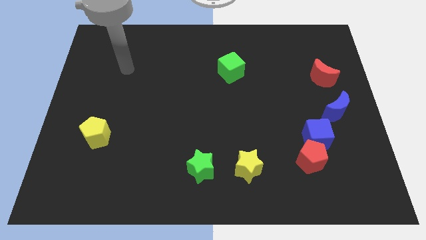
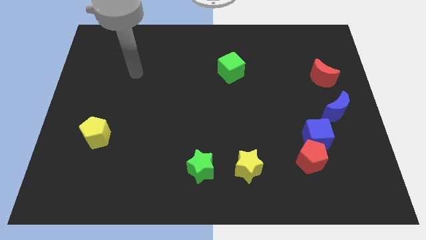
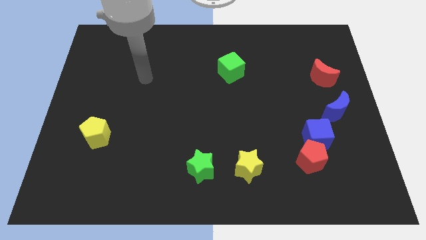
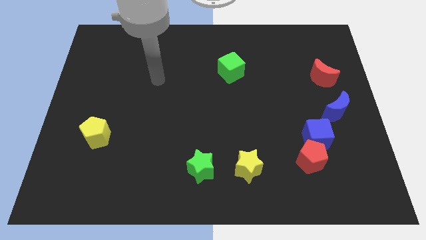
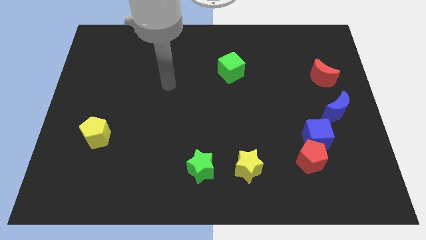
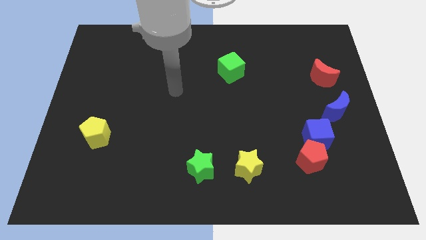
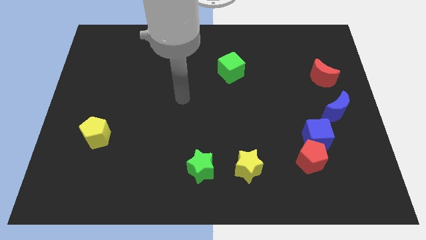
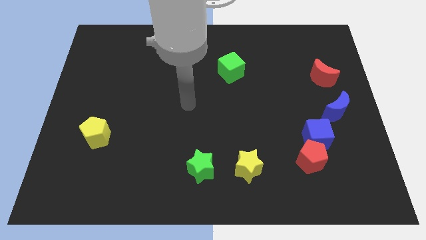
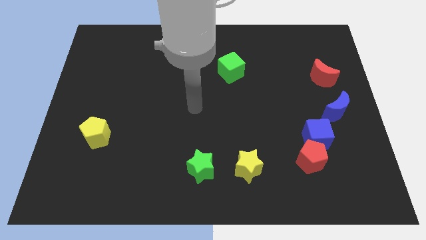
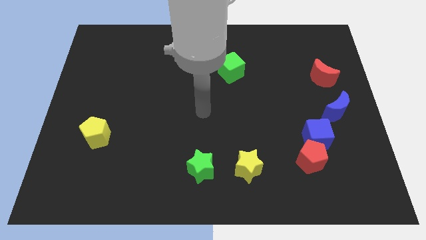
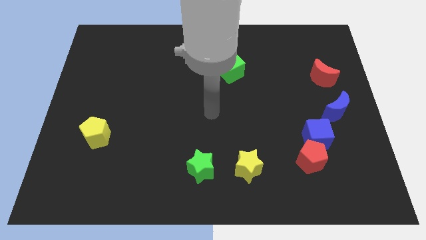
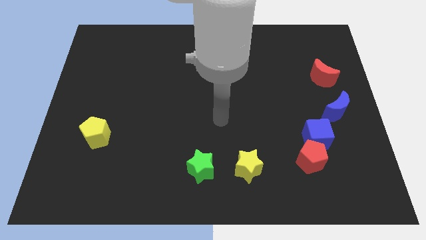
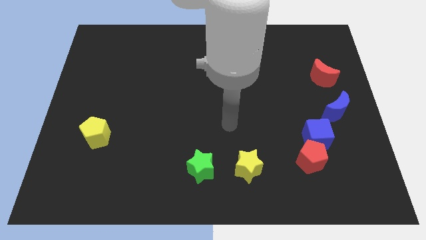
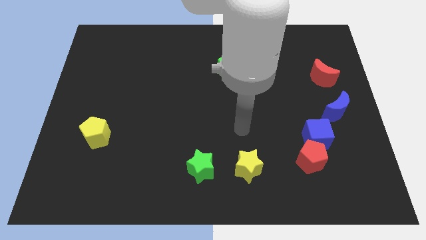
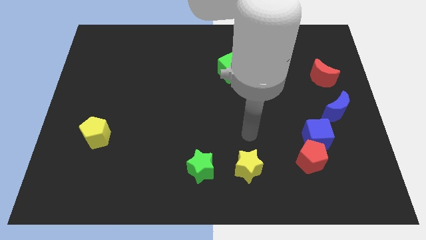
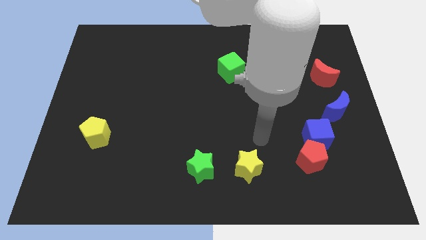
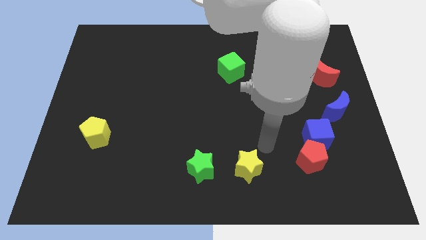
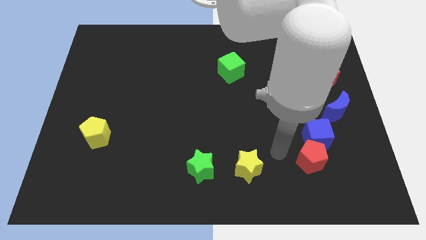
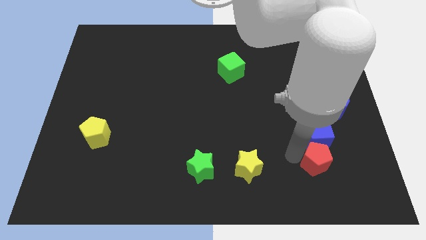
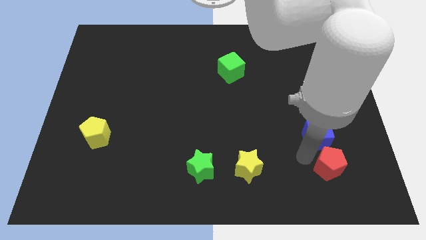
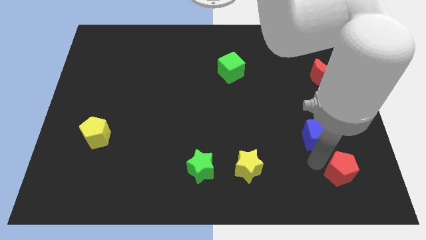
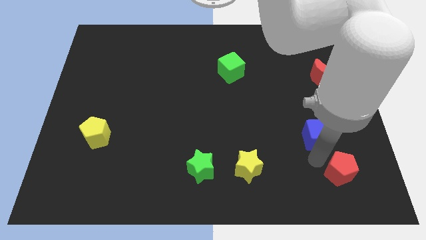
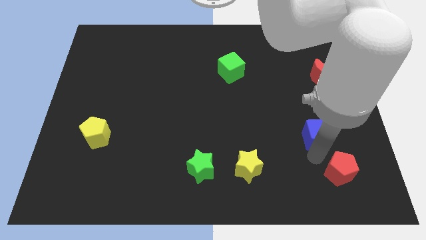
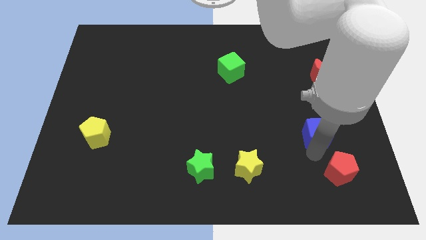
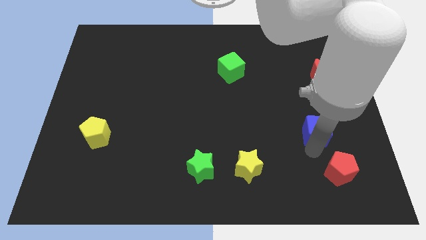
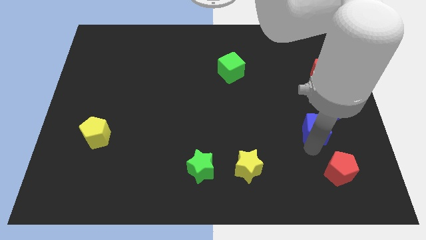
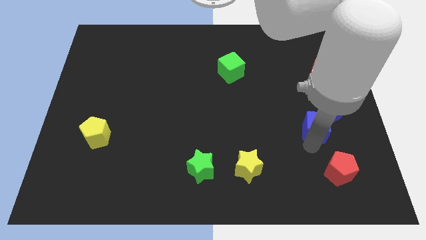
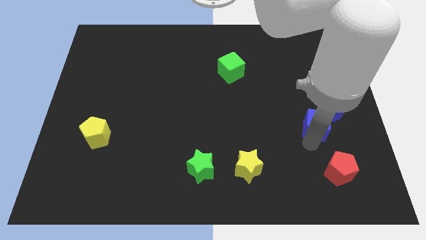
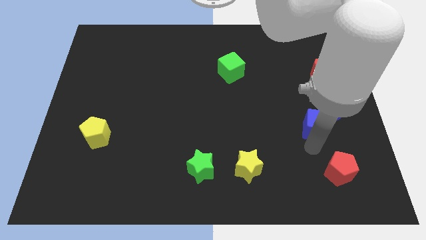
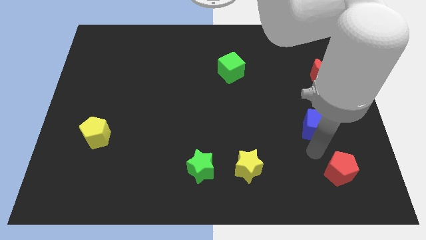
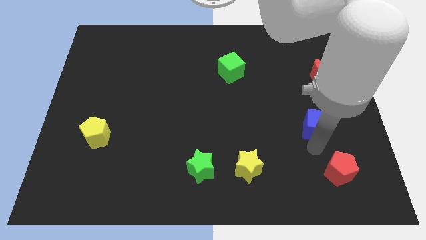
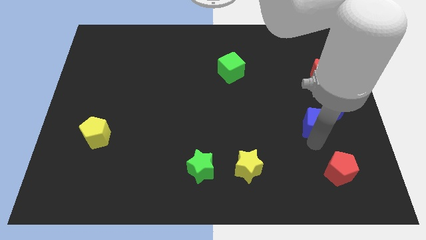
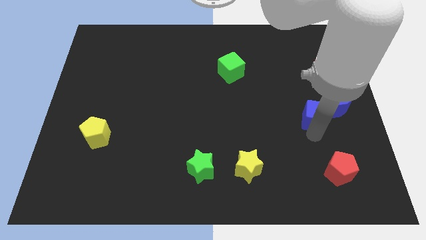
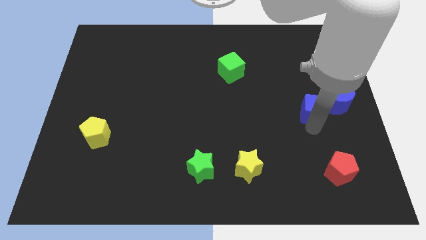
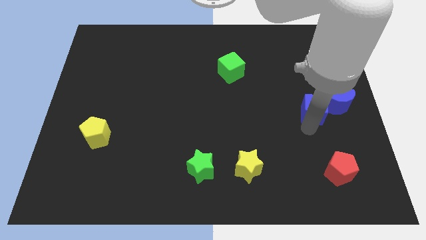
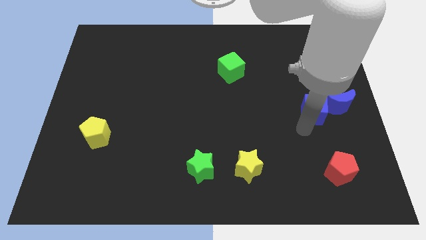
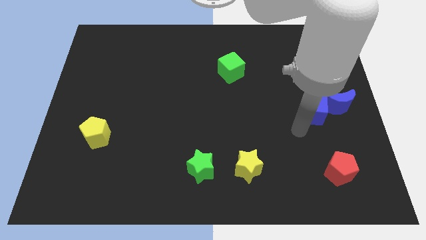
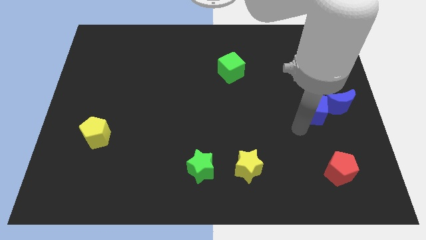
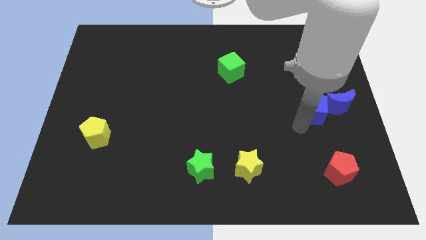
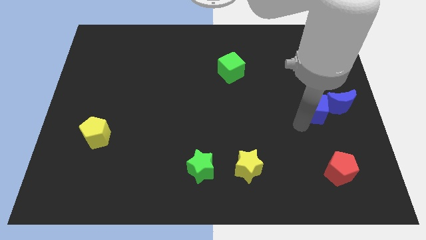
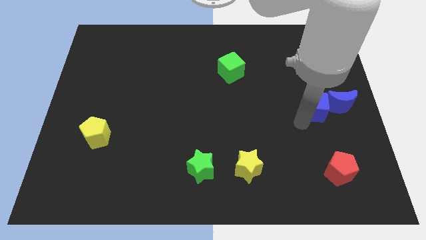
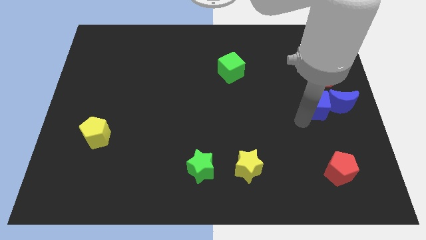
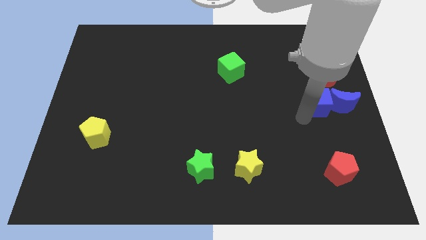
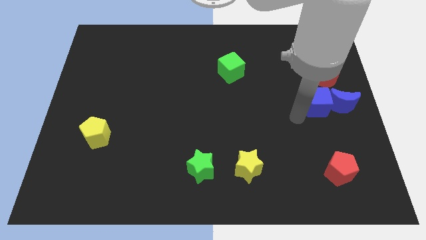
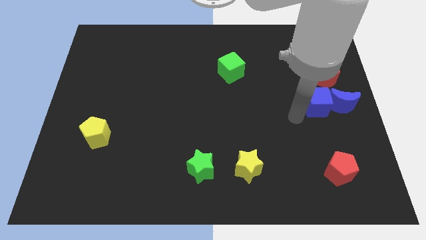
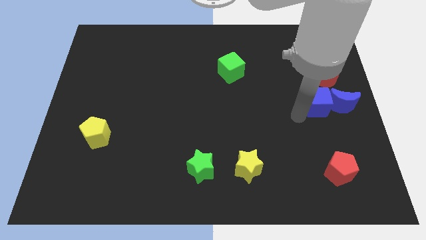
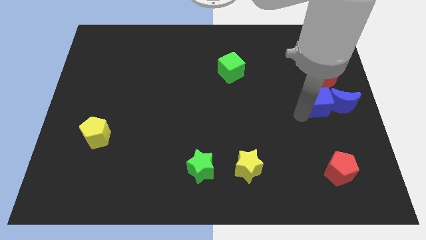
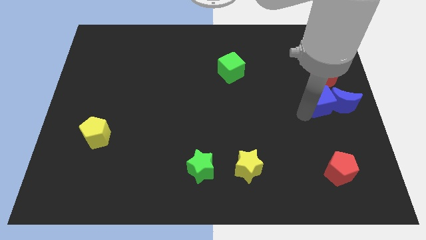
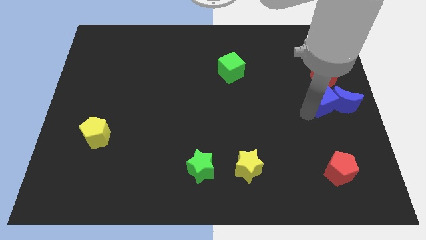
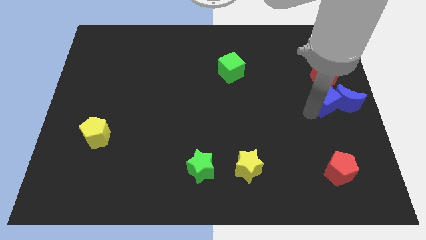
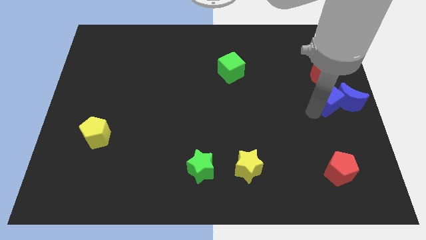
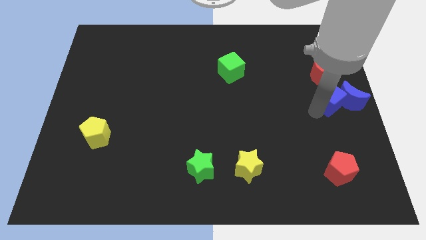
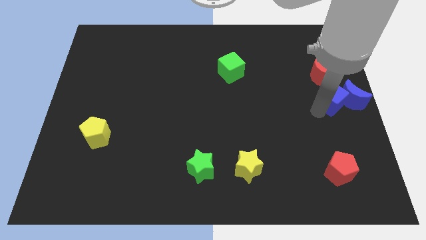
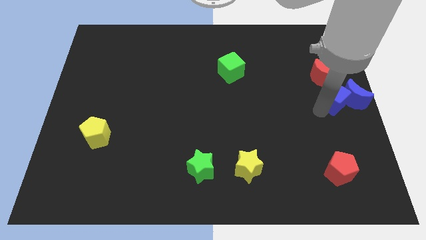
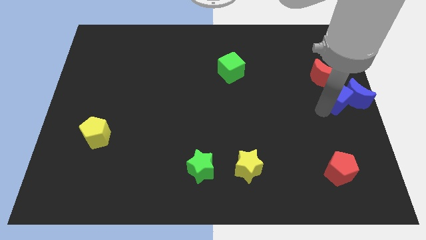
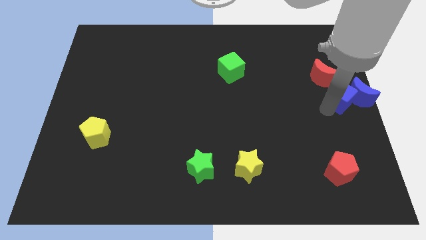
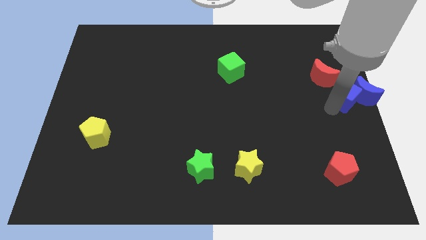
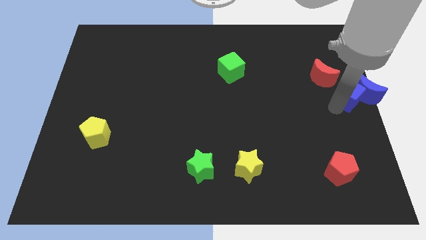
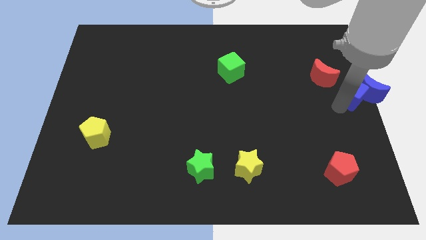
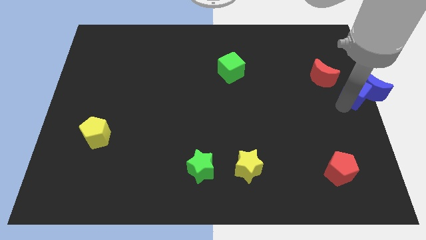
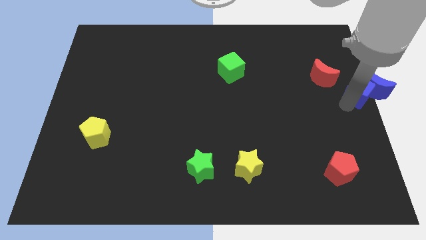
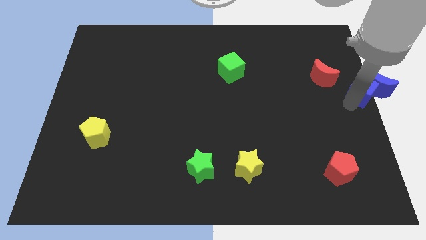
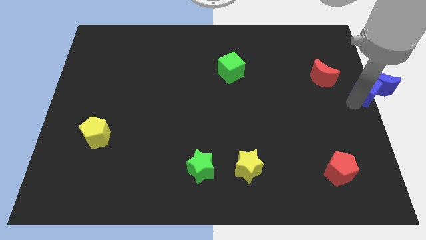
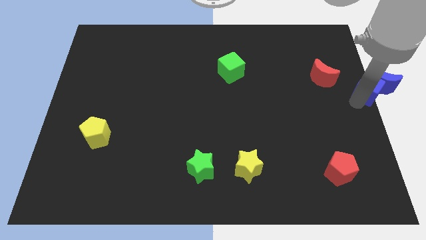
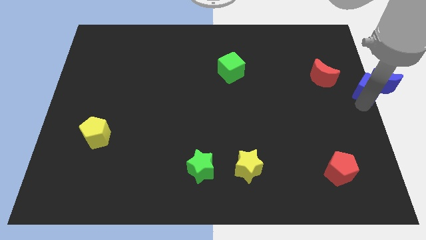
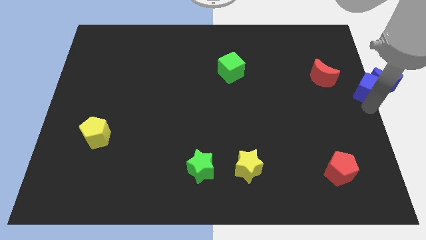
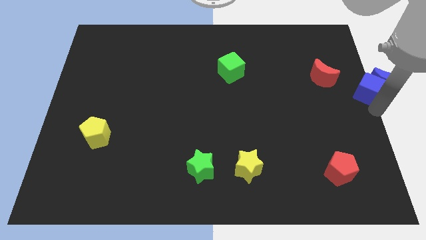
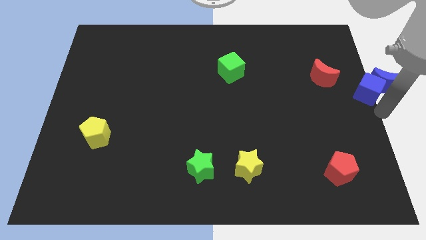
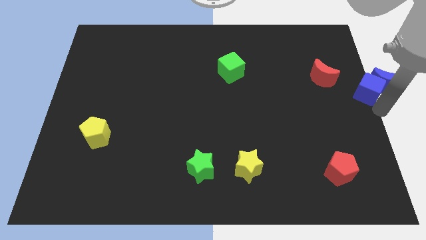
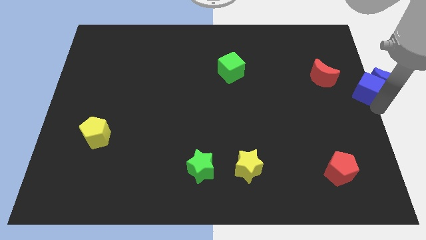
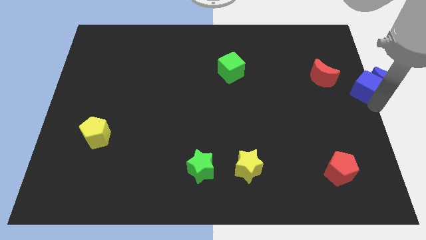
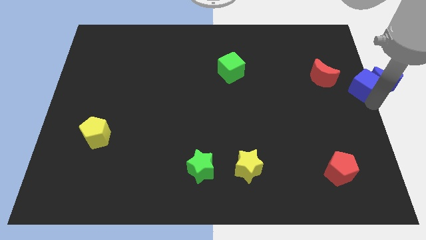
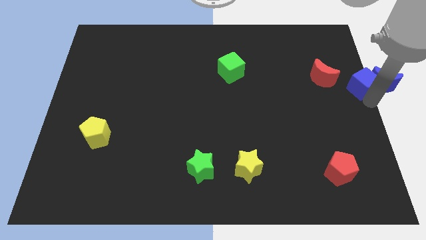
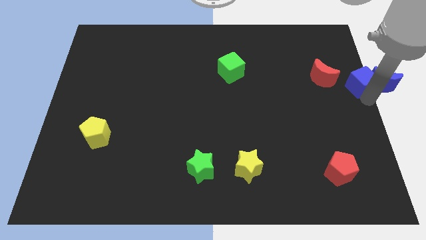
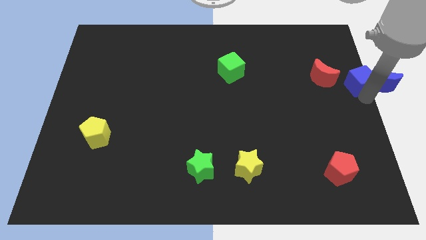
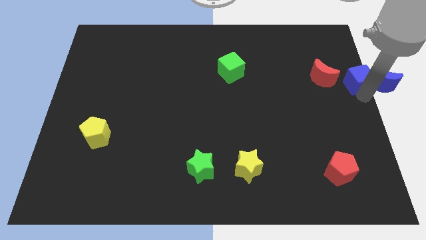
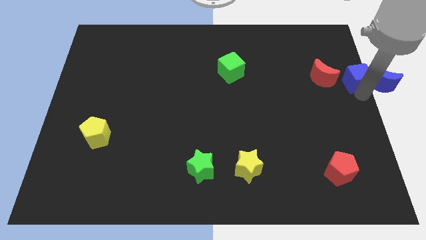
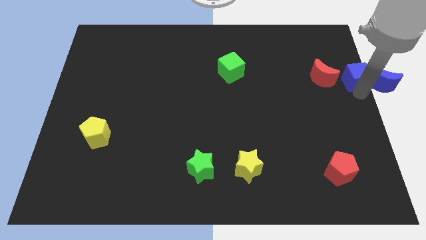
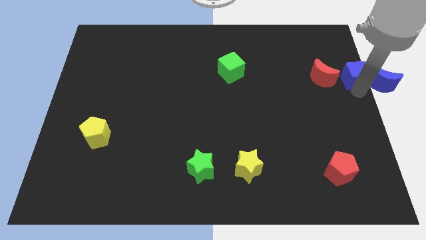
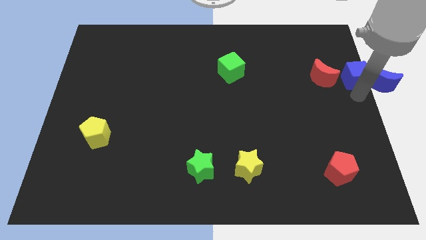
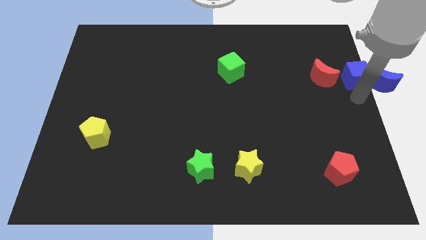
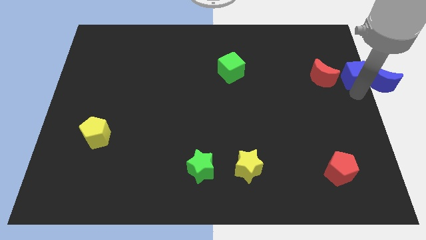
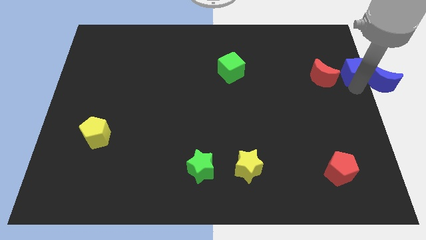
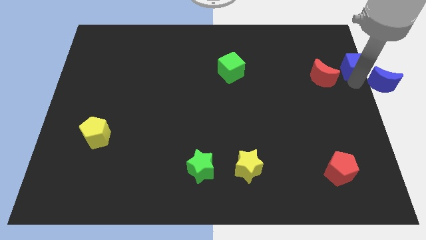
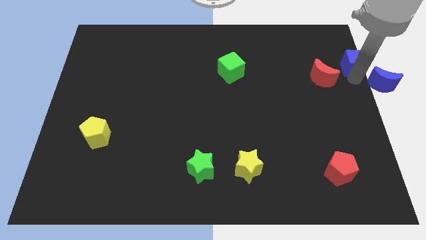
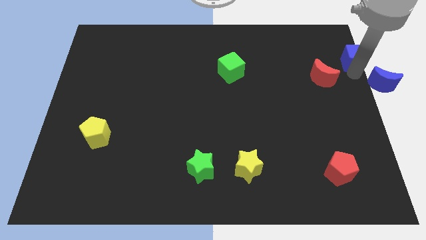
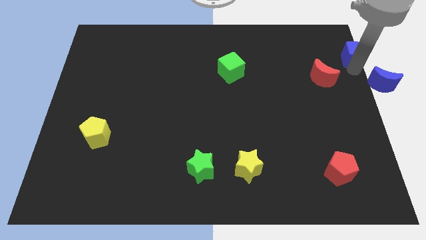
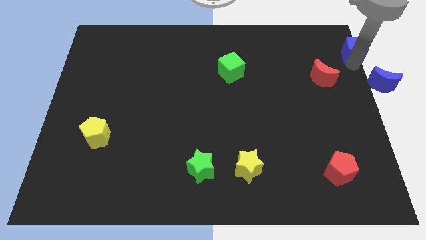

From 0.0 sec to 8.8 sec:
put the blue cube to the top right
